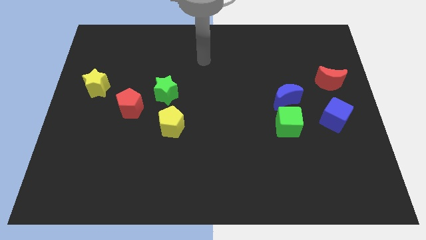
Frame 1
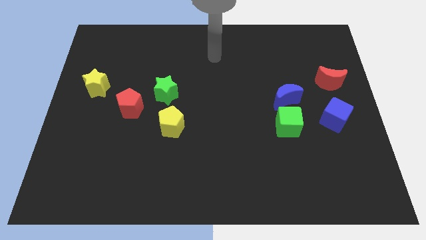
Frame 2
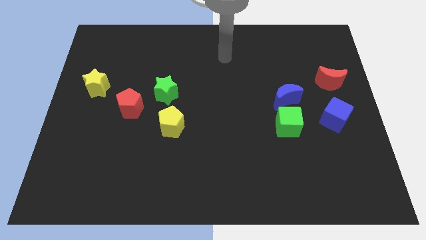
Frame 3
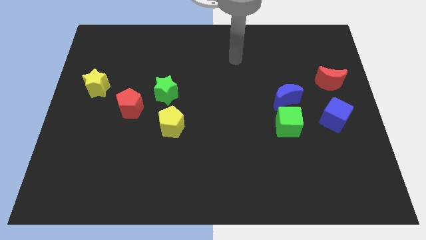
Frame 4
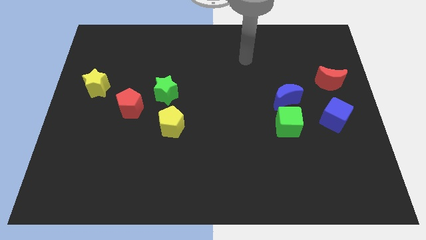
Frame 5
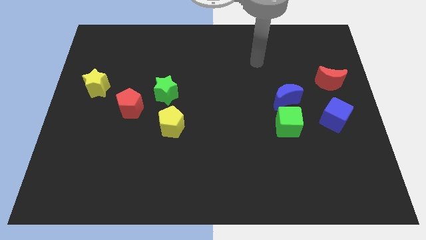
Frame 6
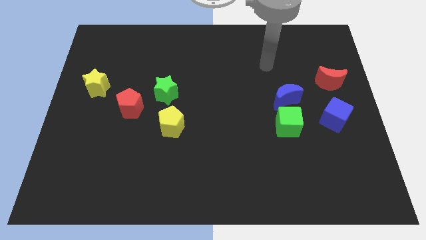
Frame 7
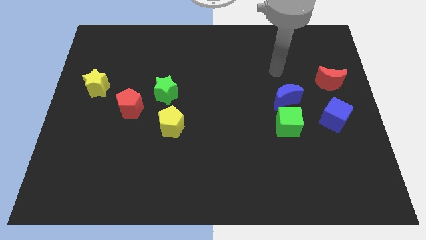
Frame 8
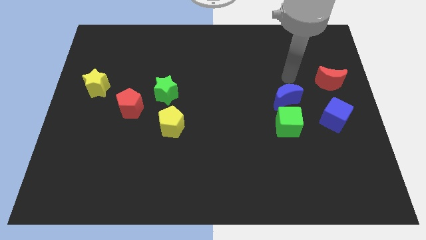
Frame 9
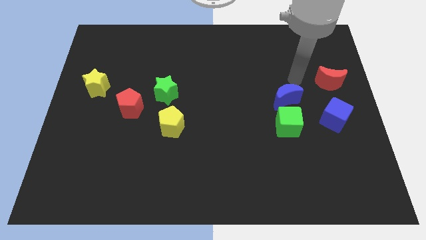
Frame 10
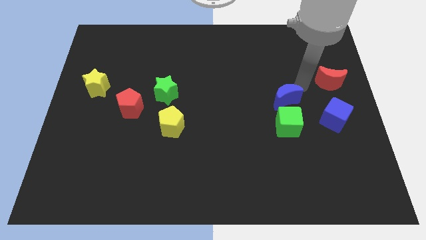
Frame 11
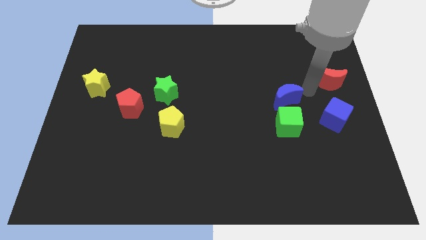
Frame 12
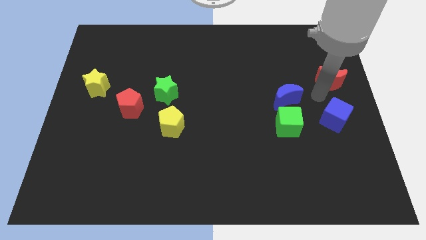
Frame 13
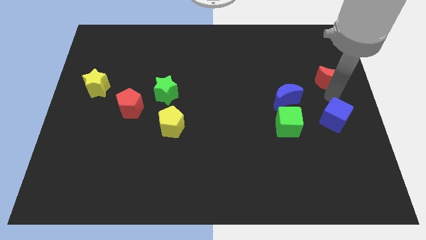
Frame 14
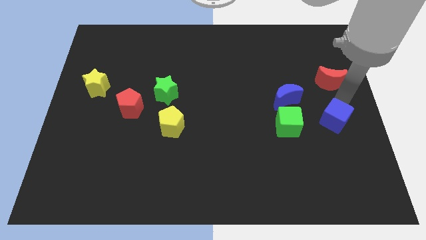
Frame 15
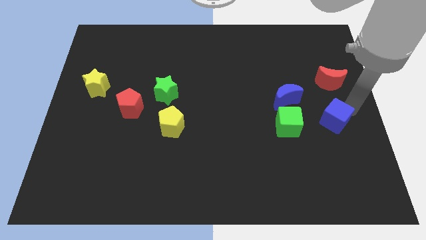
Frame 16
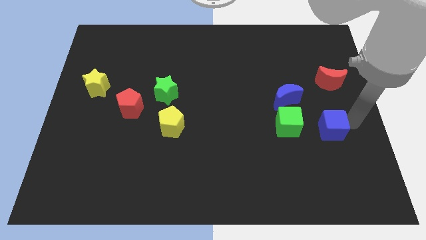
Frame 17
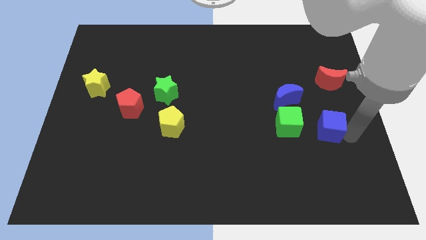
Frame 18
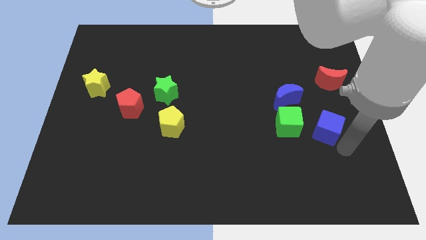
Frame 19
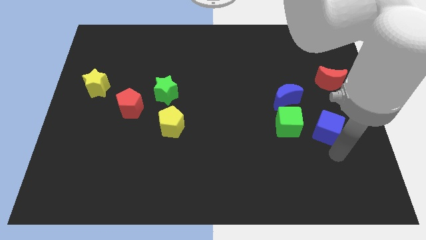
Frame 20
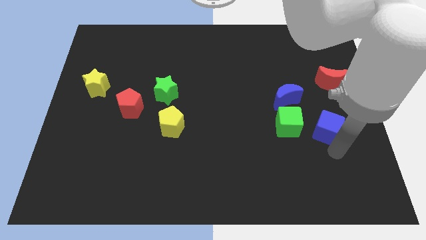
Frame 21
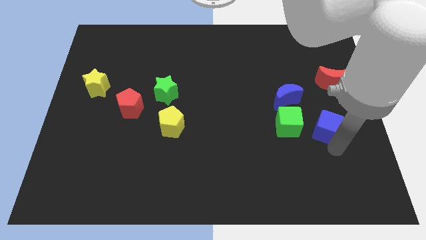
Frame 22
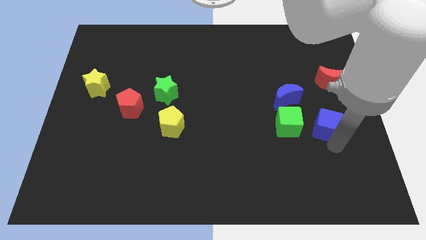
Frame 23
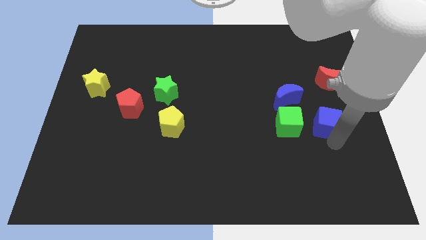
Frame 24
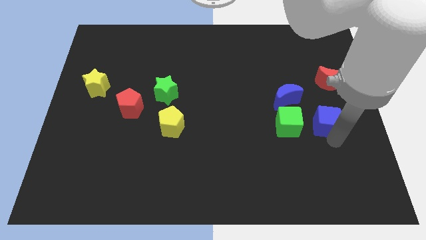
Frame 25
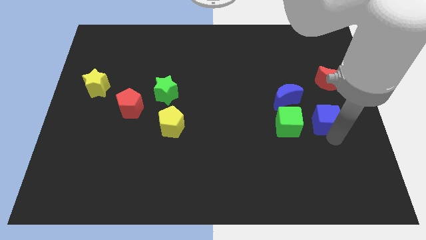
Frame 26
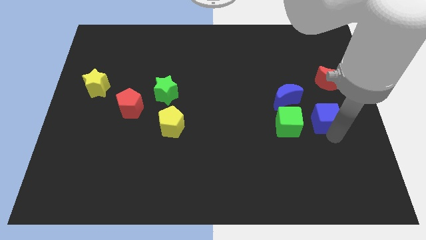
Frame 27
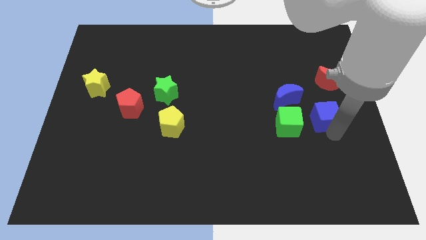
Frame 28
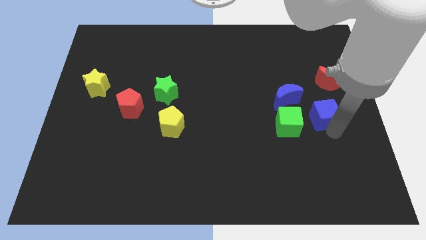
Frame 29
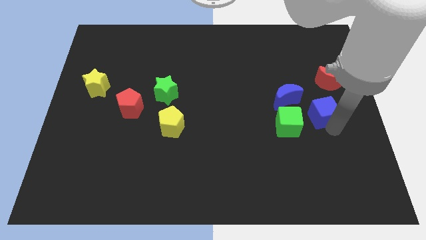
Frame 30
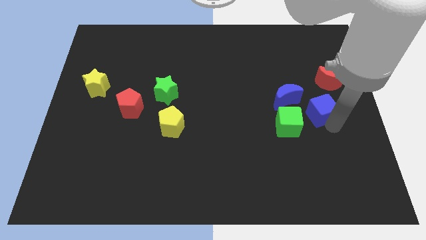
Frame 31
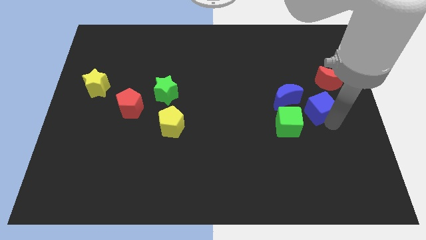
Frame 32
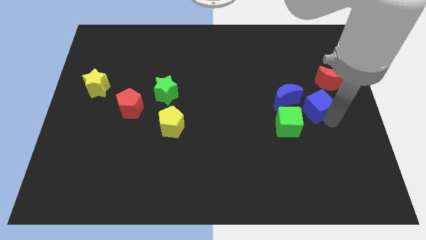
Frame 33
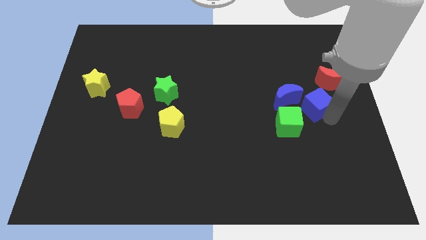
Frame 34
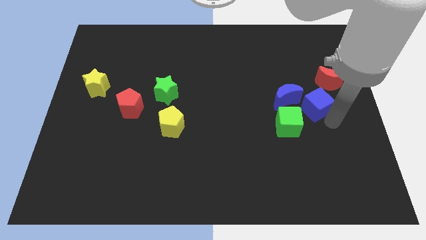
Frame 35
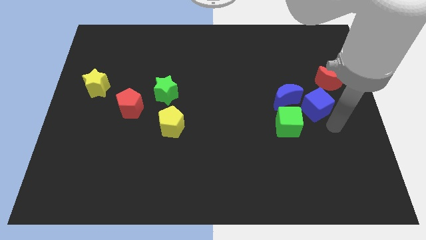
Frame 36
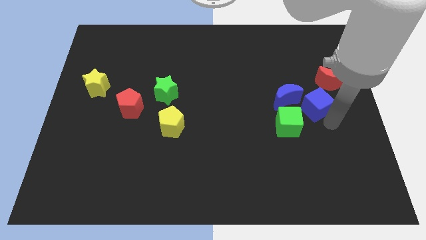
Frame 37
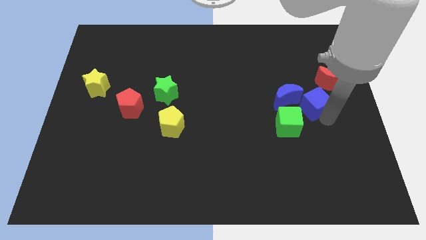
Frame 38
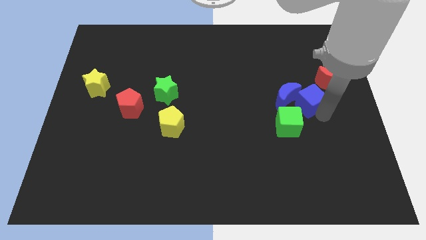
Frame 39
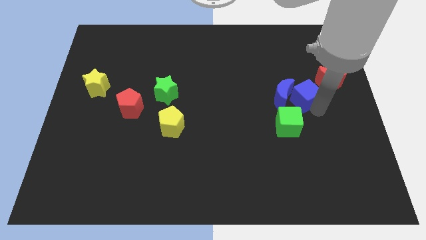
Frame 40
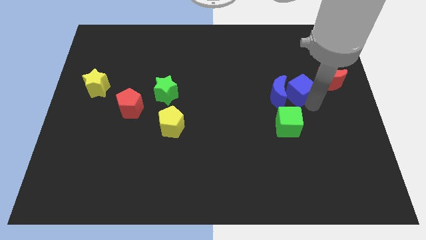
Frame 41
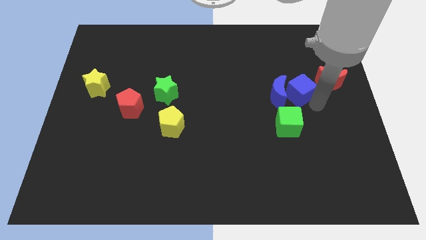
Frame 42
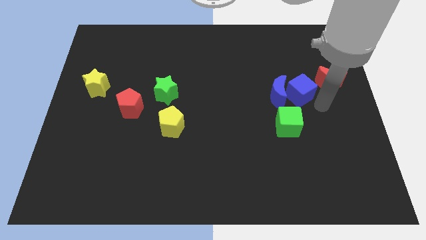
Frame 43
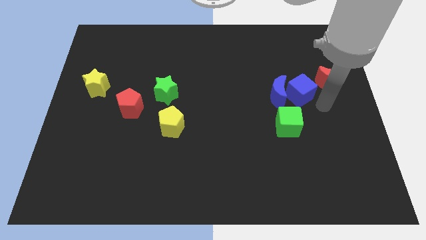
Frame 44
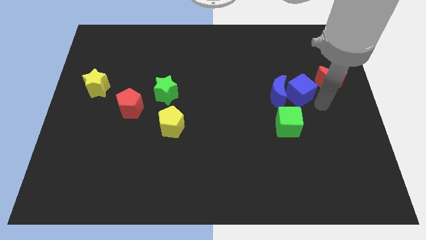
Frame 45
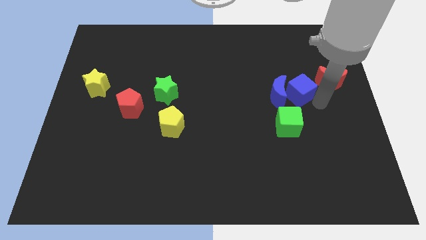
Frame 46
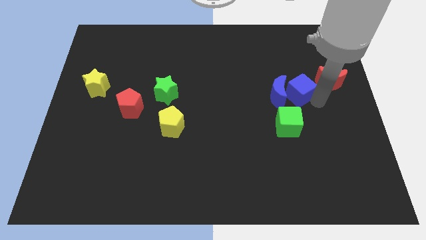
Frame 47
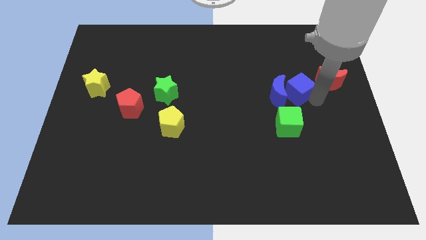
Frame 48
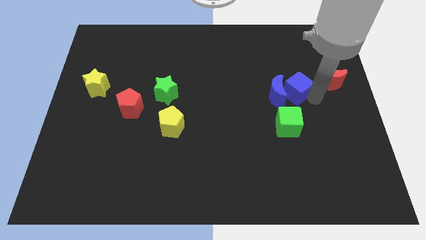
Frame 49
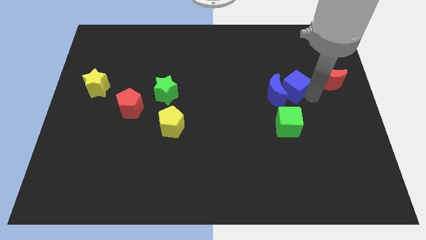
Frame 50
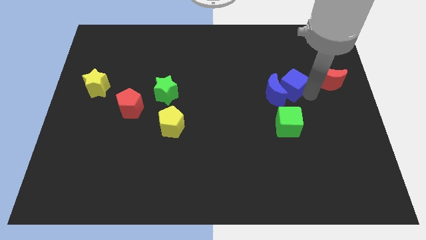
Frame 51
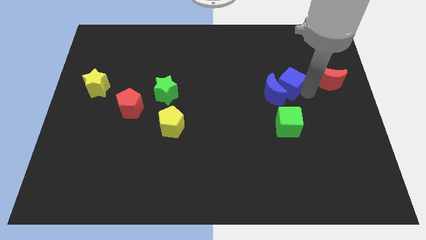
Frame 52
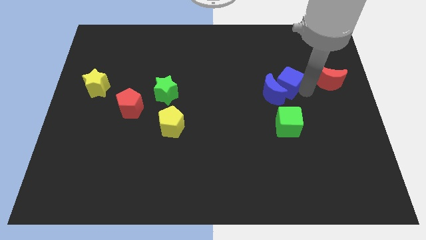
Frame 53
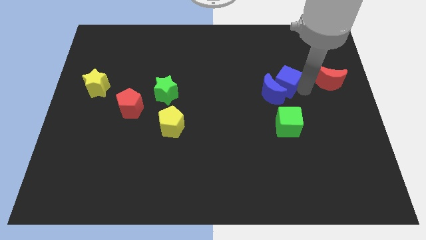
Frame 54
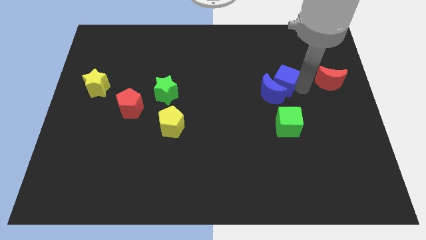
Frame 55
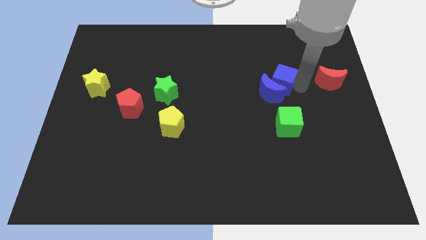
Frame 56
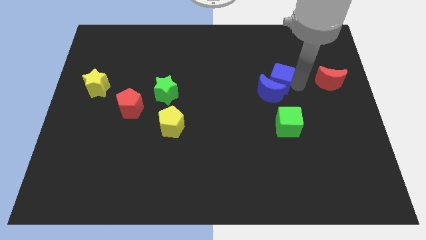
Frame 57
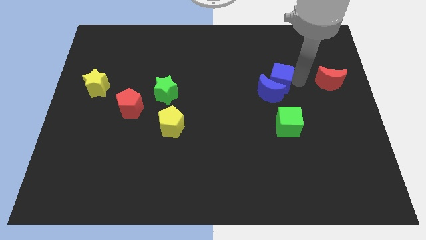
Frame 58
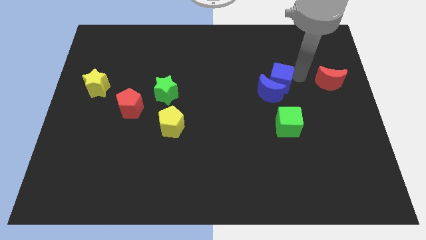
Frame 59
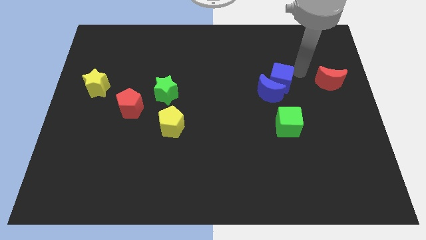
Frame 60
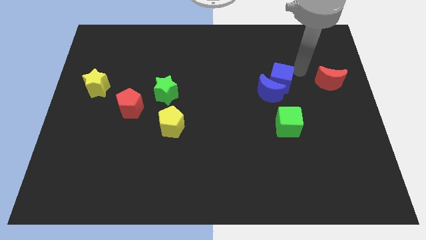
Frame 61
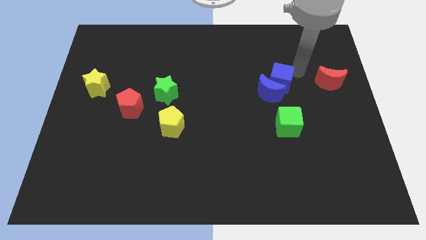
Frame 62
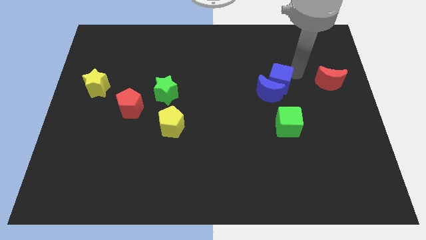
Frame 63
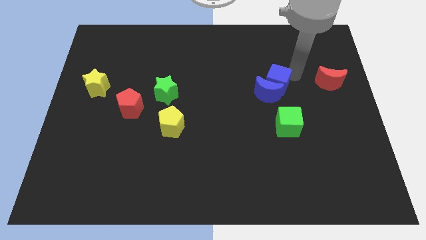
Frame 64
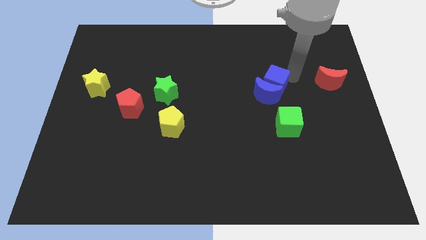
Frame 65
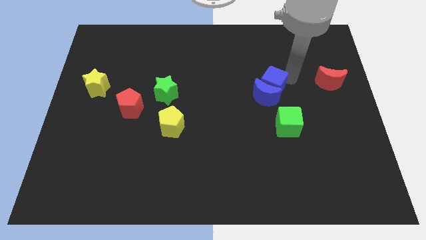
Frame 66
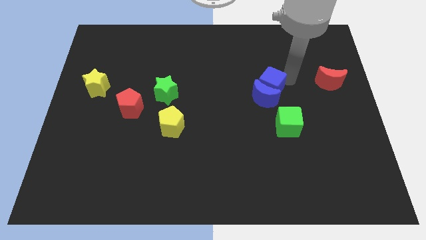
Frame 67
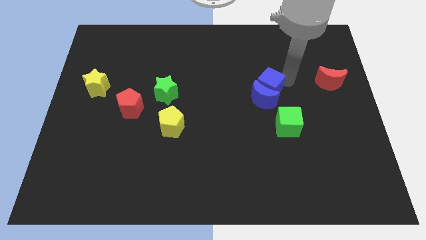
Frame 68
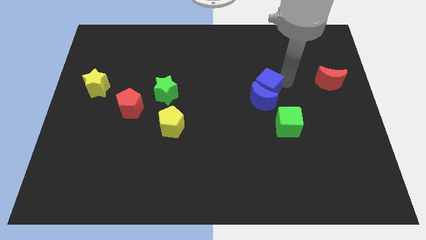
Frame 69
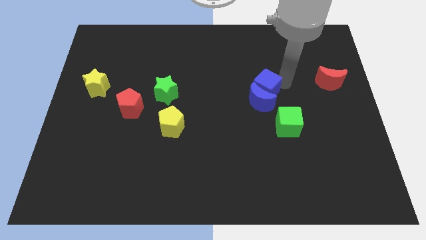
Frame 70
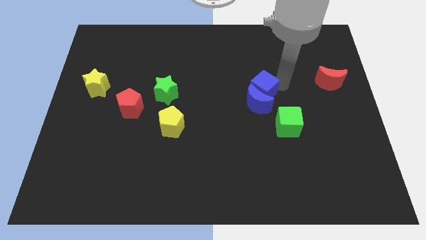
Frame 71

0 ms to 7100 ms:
push the blue cube to the center
